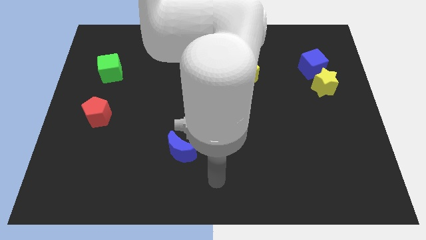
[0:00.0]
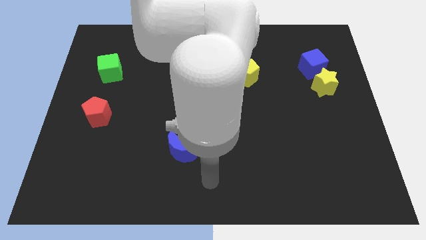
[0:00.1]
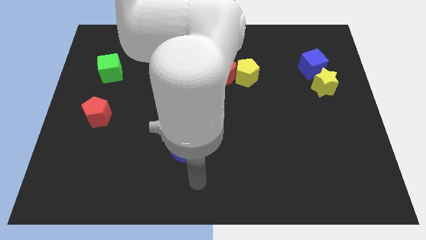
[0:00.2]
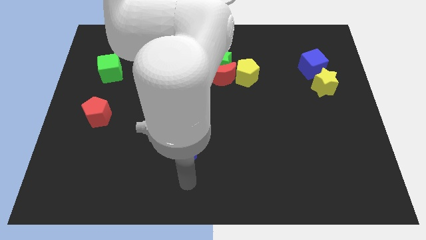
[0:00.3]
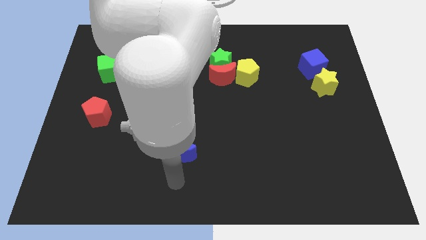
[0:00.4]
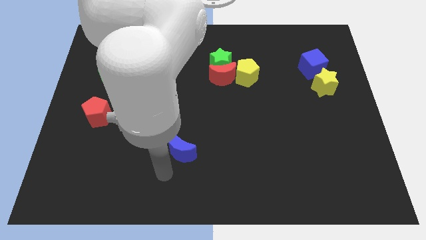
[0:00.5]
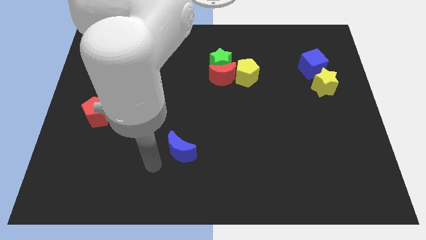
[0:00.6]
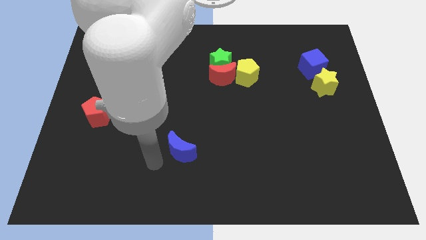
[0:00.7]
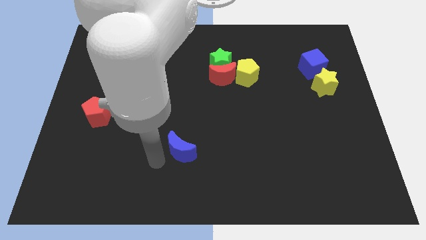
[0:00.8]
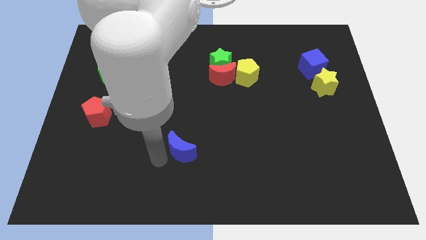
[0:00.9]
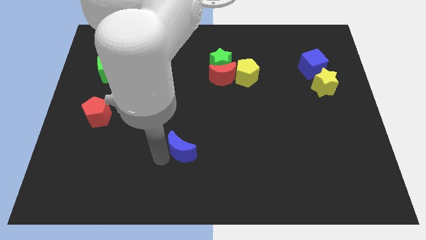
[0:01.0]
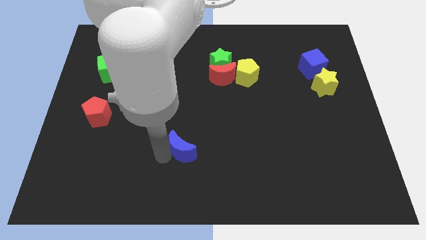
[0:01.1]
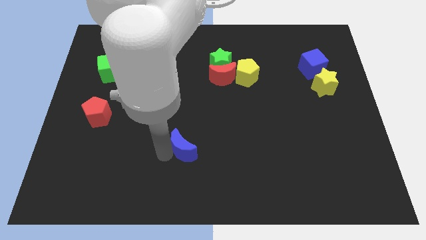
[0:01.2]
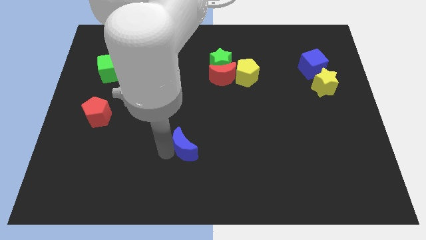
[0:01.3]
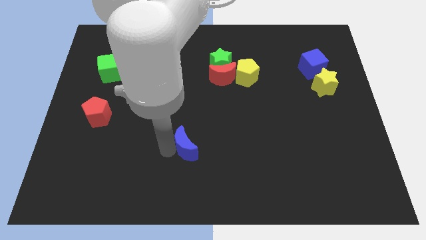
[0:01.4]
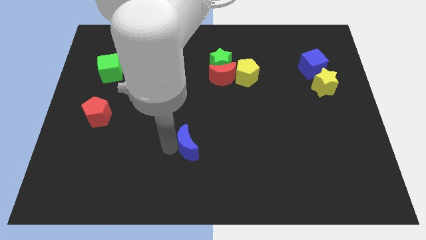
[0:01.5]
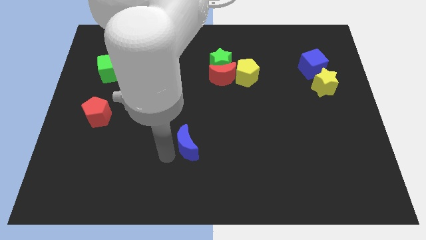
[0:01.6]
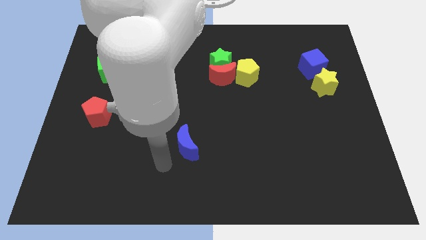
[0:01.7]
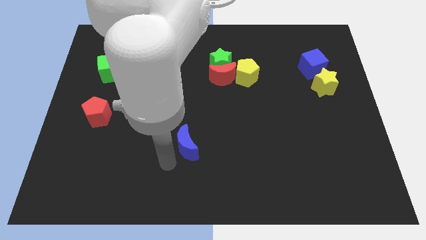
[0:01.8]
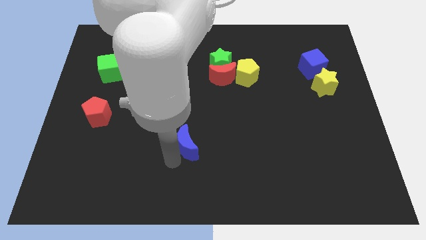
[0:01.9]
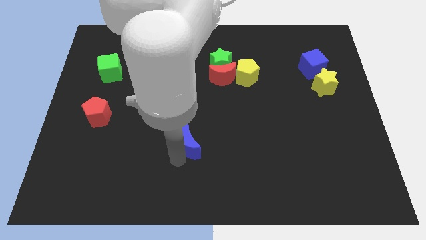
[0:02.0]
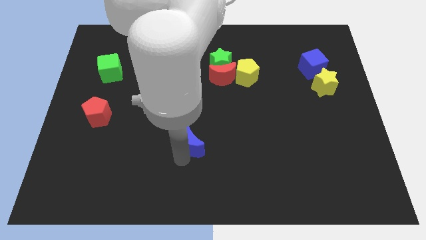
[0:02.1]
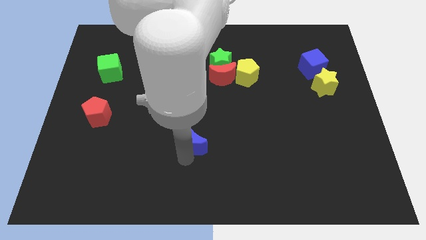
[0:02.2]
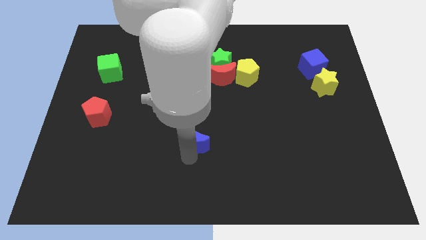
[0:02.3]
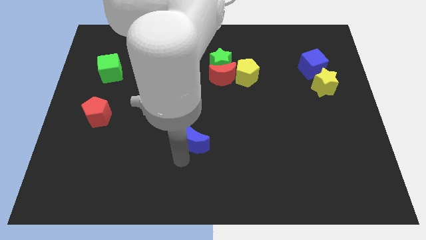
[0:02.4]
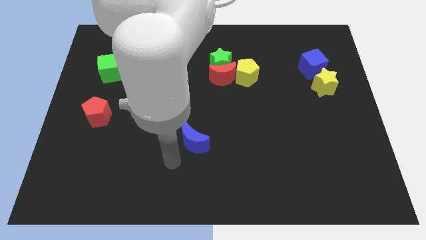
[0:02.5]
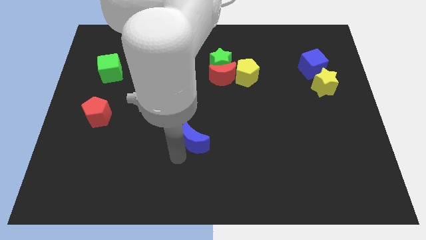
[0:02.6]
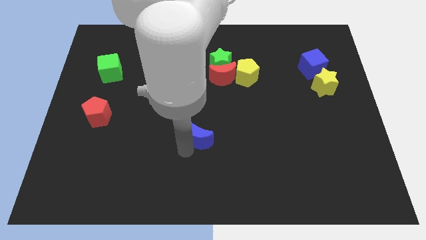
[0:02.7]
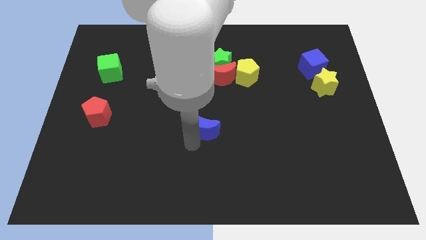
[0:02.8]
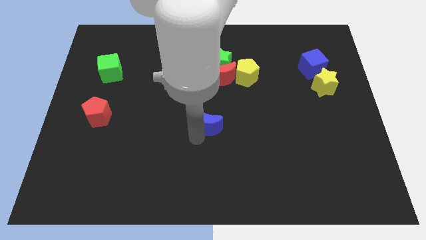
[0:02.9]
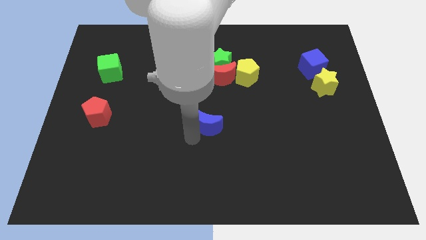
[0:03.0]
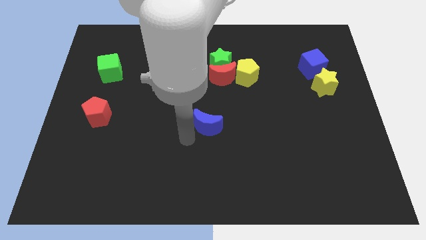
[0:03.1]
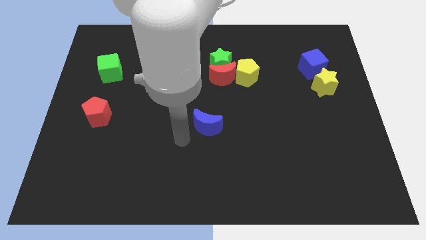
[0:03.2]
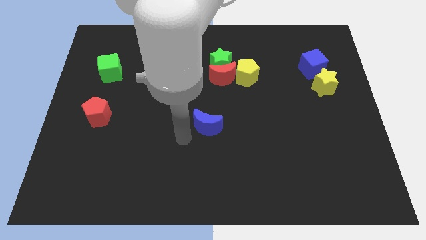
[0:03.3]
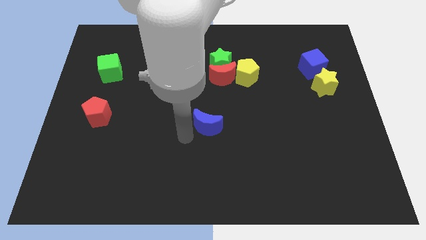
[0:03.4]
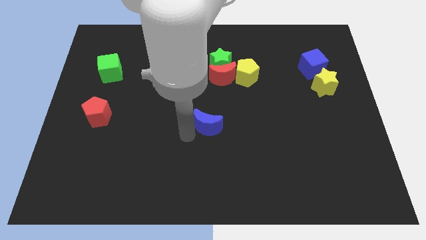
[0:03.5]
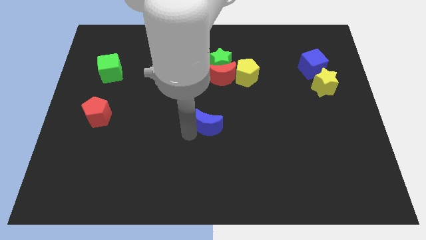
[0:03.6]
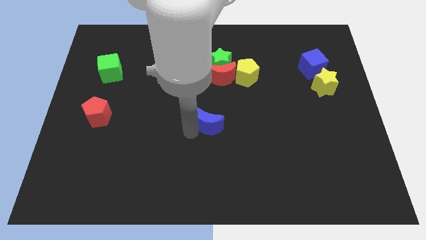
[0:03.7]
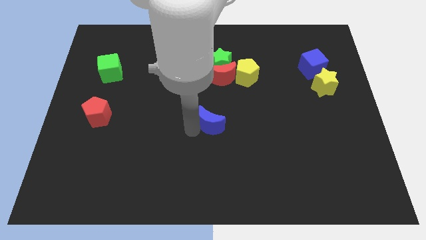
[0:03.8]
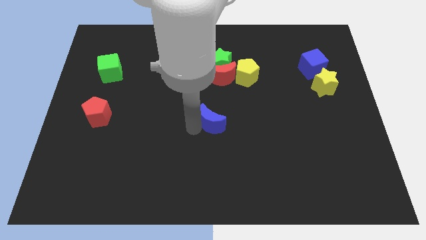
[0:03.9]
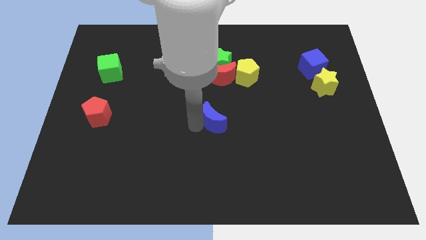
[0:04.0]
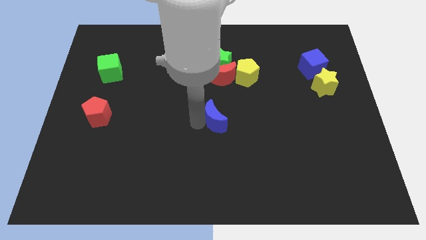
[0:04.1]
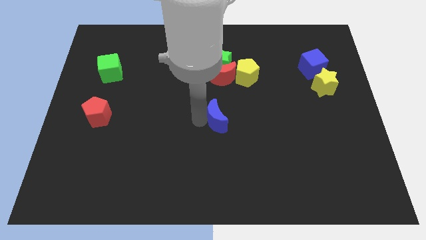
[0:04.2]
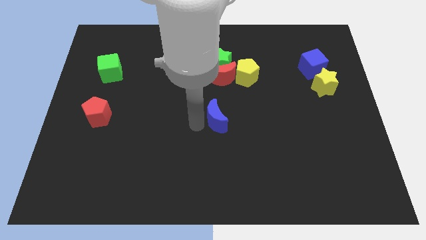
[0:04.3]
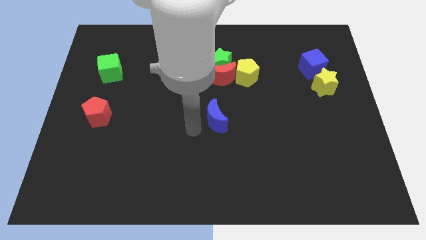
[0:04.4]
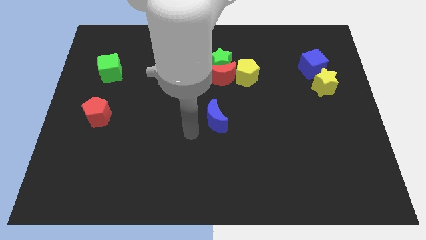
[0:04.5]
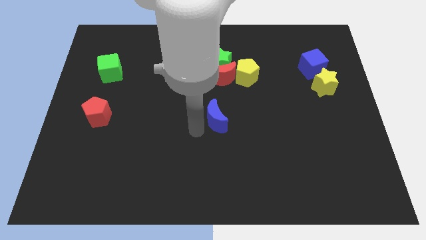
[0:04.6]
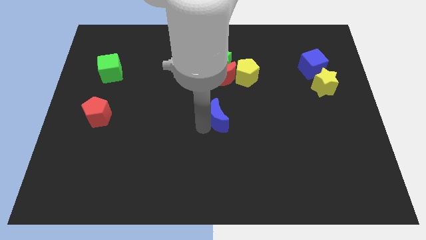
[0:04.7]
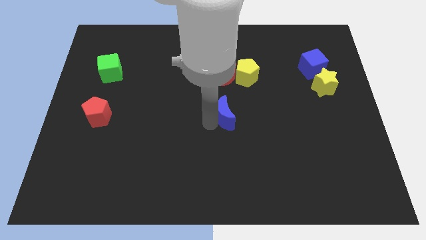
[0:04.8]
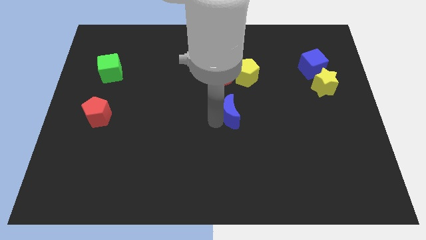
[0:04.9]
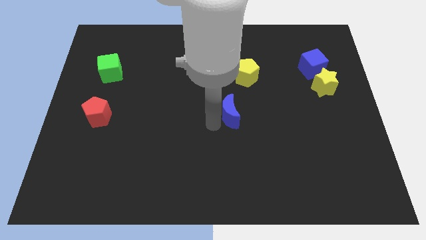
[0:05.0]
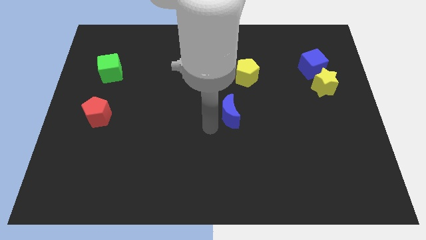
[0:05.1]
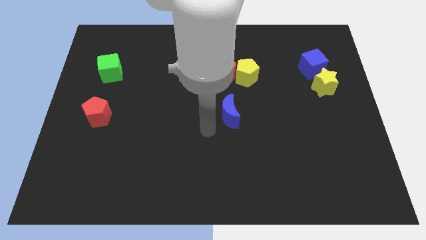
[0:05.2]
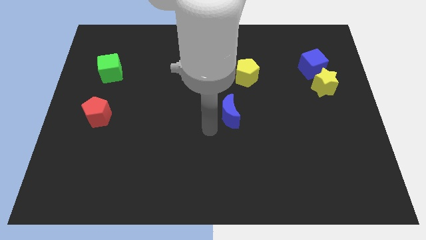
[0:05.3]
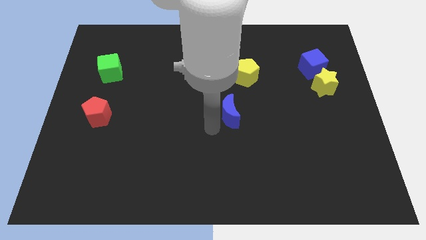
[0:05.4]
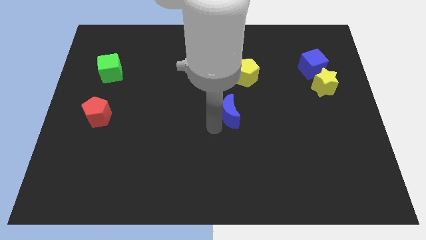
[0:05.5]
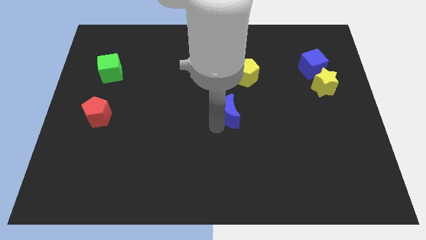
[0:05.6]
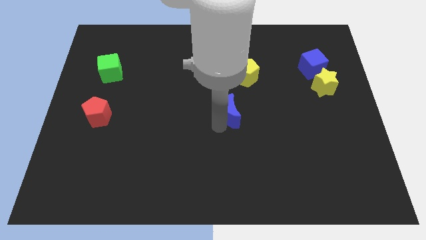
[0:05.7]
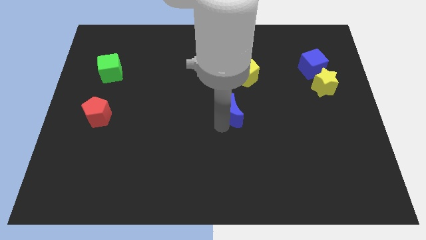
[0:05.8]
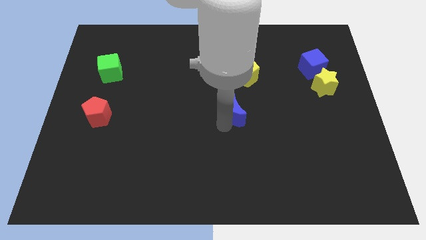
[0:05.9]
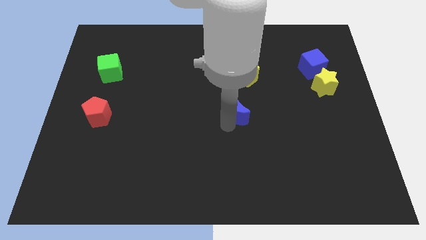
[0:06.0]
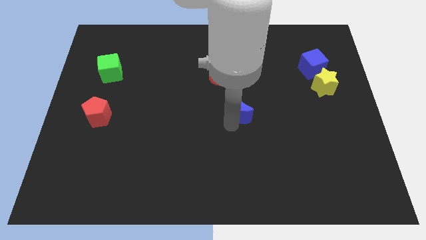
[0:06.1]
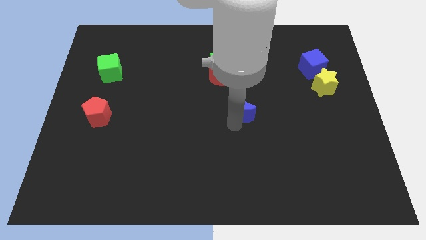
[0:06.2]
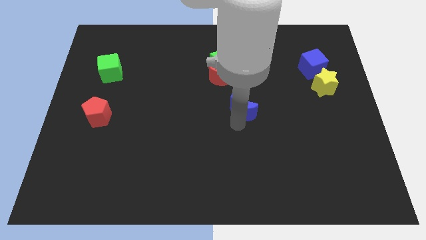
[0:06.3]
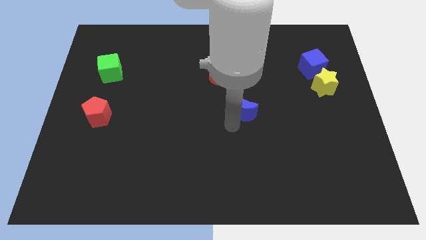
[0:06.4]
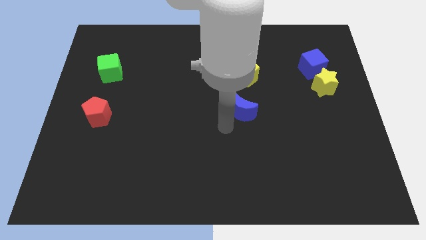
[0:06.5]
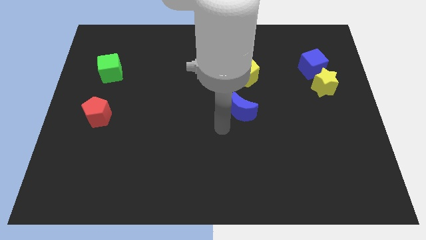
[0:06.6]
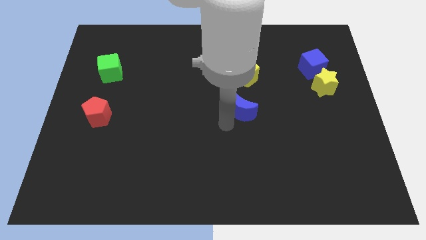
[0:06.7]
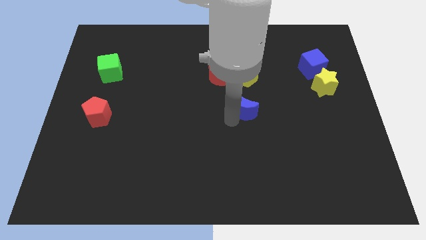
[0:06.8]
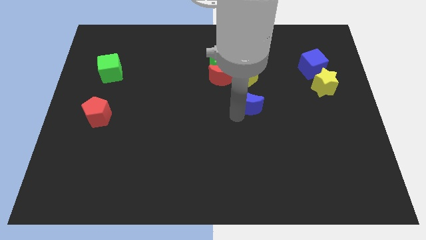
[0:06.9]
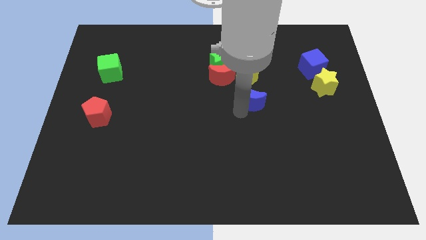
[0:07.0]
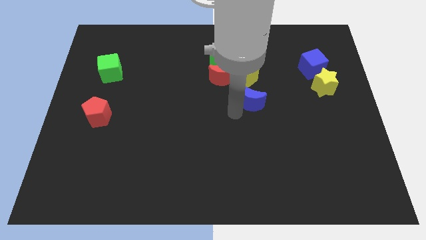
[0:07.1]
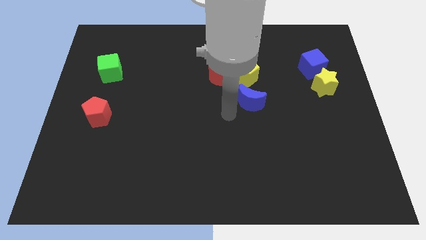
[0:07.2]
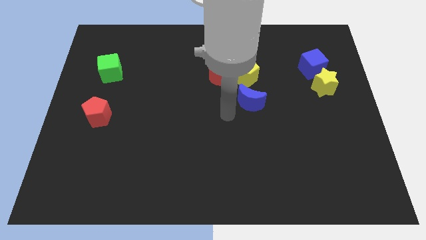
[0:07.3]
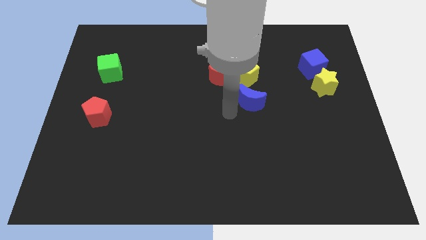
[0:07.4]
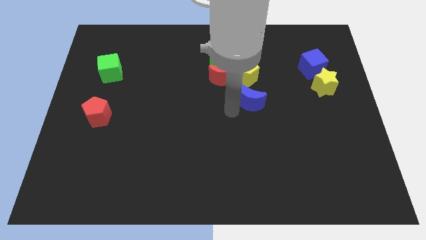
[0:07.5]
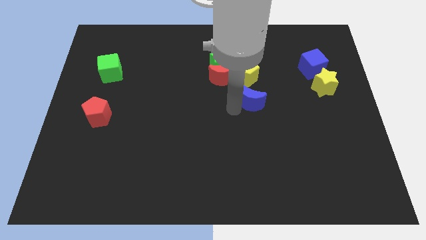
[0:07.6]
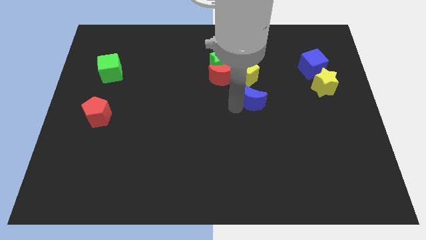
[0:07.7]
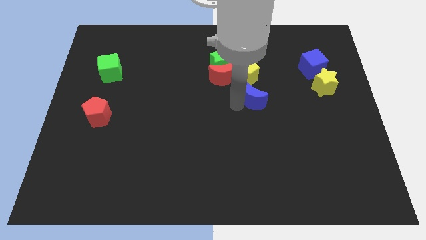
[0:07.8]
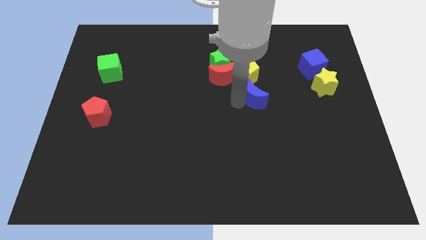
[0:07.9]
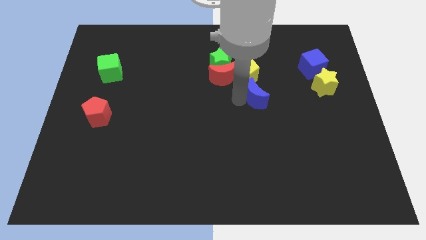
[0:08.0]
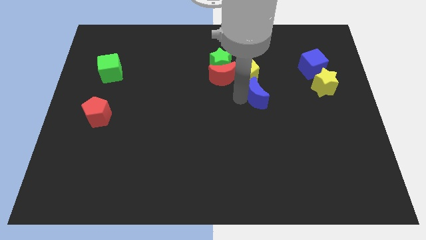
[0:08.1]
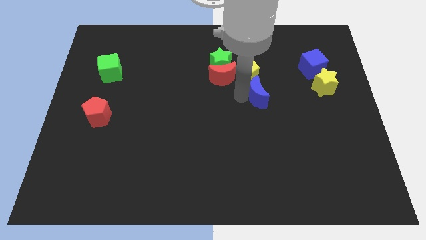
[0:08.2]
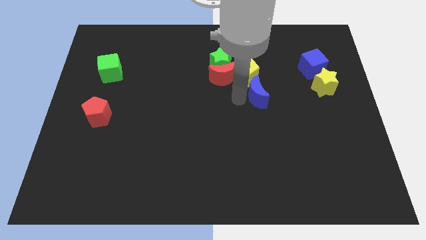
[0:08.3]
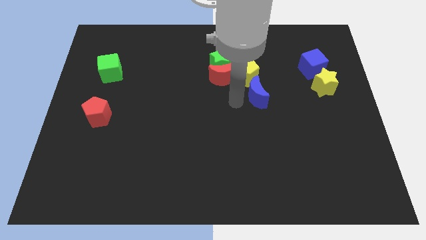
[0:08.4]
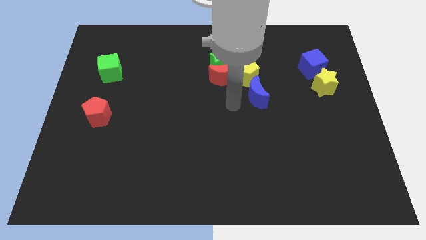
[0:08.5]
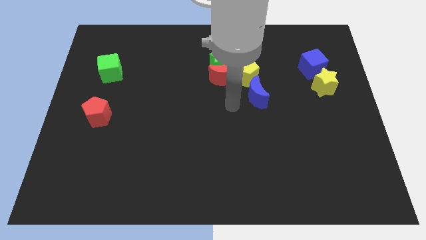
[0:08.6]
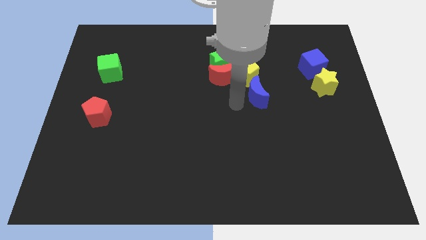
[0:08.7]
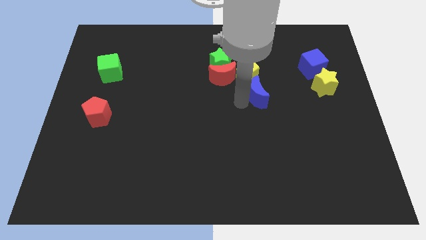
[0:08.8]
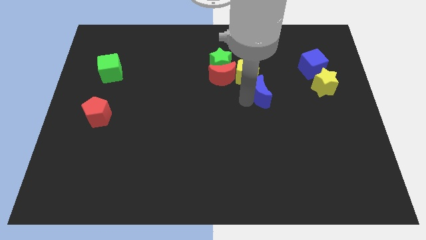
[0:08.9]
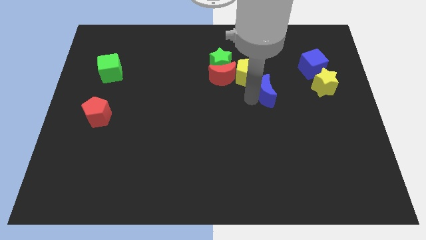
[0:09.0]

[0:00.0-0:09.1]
put the blue moon to the left side of the yellow star
